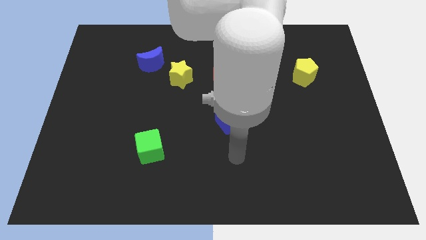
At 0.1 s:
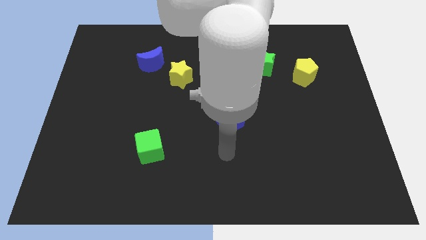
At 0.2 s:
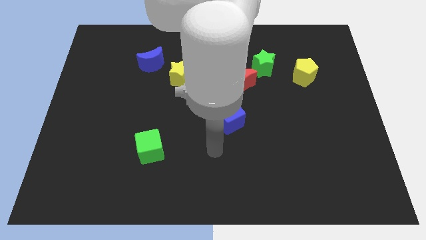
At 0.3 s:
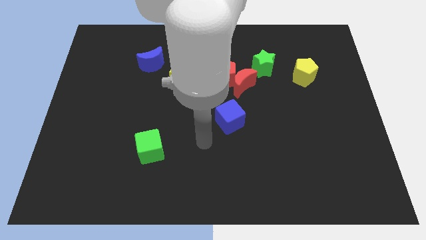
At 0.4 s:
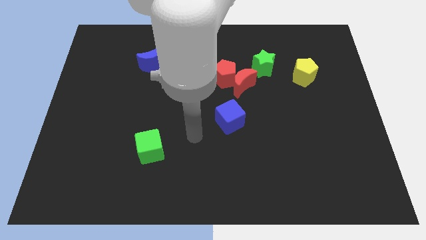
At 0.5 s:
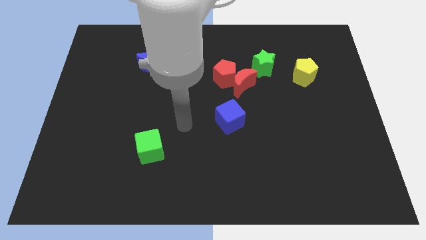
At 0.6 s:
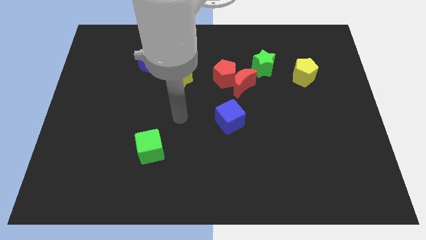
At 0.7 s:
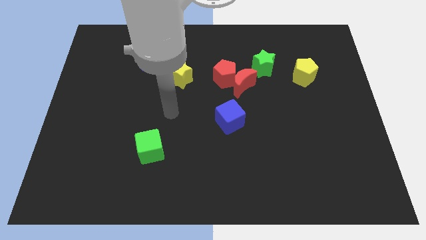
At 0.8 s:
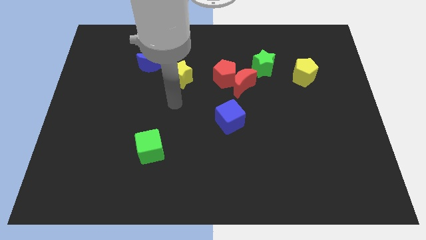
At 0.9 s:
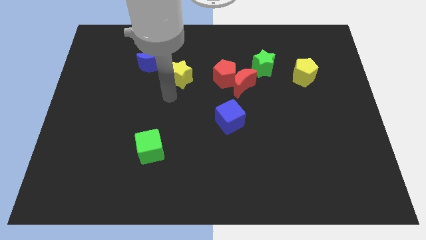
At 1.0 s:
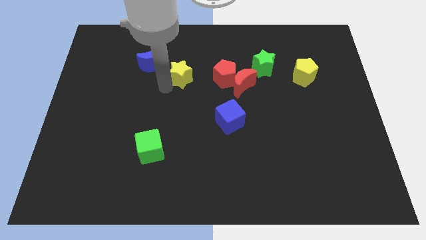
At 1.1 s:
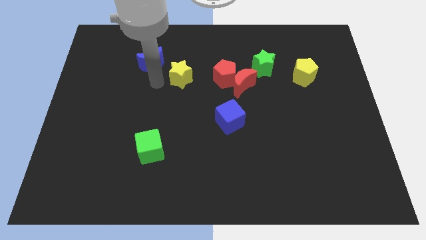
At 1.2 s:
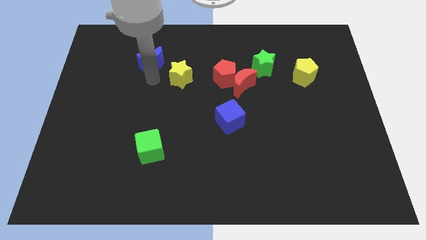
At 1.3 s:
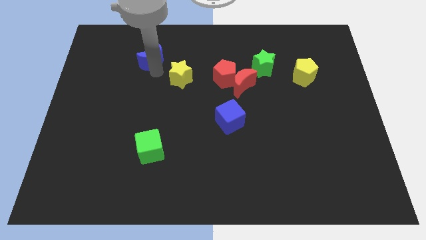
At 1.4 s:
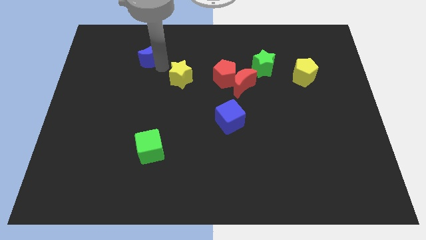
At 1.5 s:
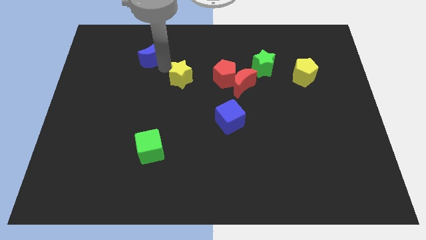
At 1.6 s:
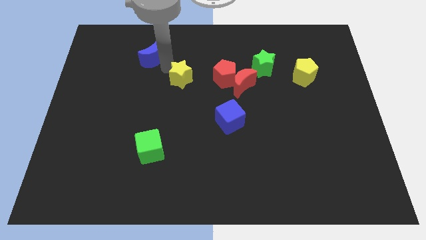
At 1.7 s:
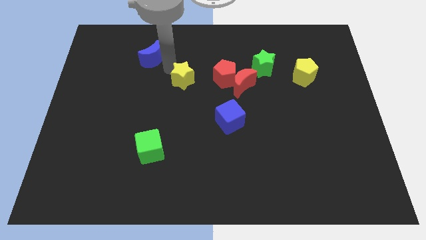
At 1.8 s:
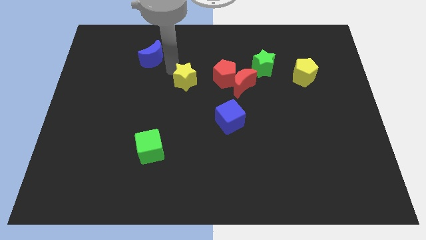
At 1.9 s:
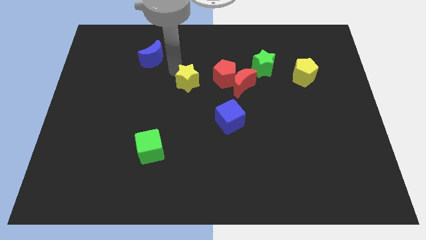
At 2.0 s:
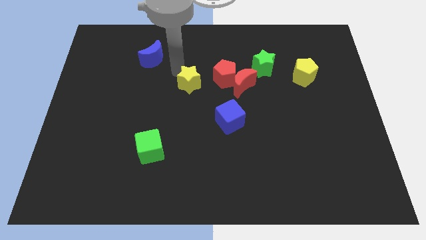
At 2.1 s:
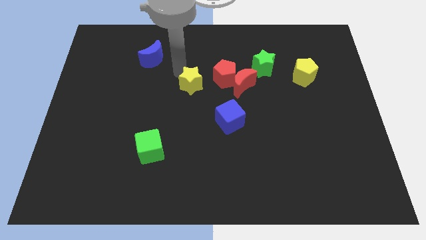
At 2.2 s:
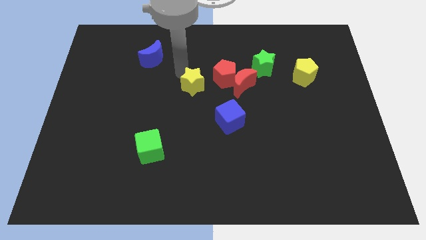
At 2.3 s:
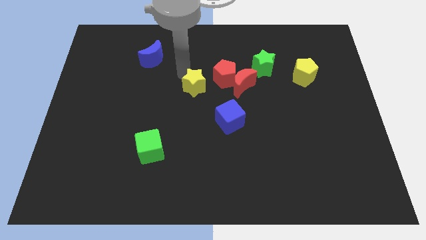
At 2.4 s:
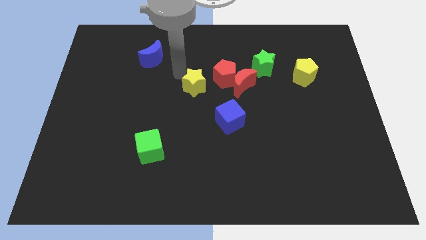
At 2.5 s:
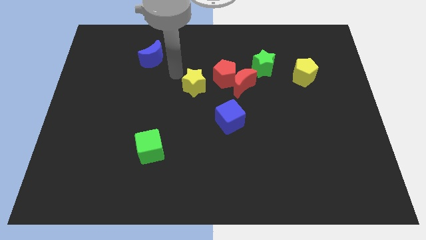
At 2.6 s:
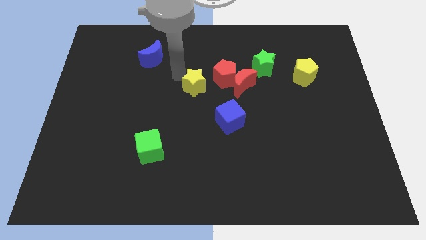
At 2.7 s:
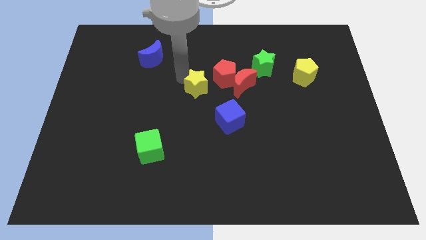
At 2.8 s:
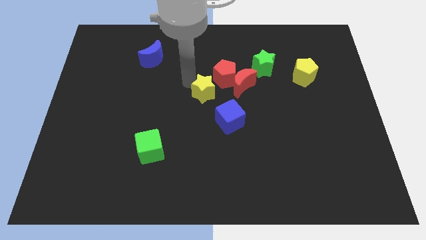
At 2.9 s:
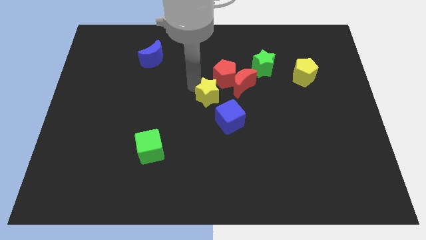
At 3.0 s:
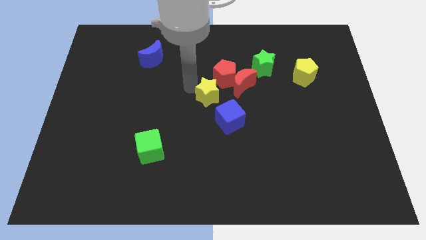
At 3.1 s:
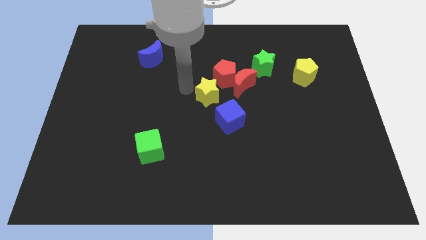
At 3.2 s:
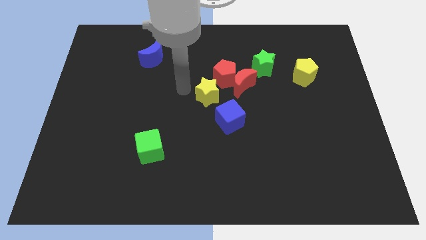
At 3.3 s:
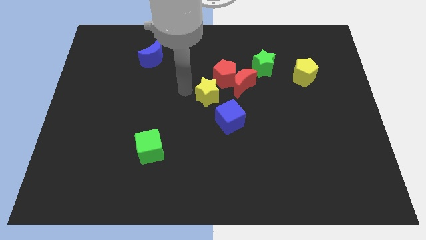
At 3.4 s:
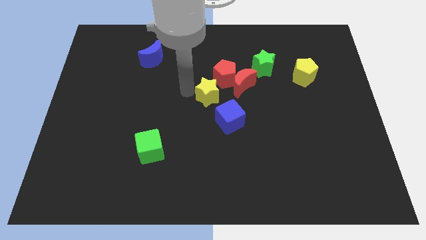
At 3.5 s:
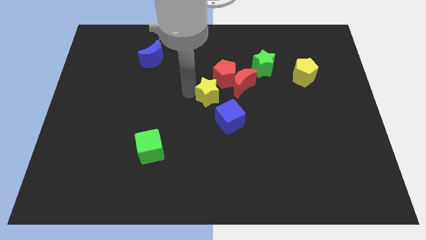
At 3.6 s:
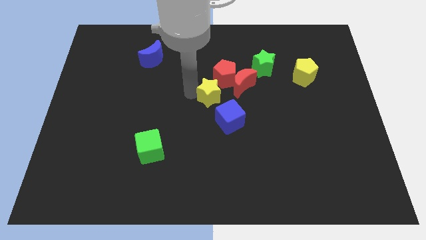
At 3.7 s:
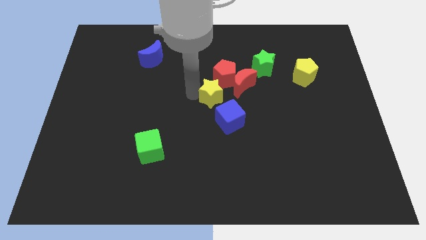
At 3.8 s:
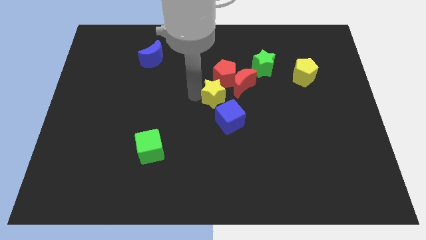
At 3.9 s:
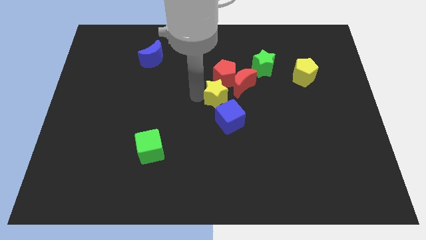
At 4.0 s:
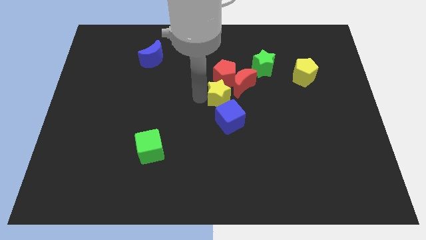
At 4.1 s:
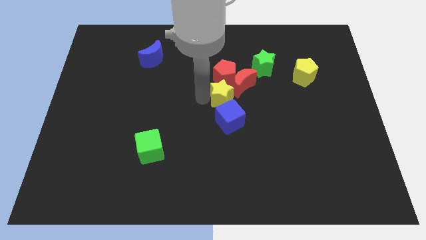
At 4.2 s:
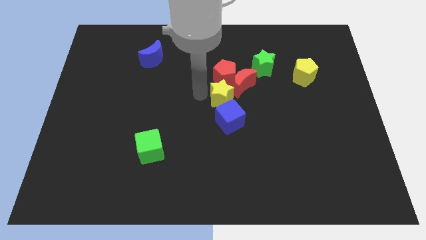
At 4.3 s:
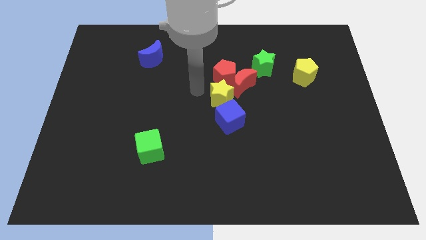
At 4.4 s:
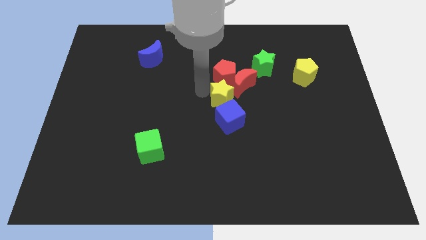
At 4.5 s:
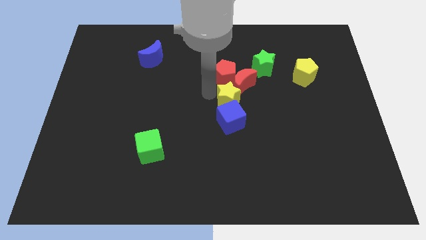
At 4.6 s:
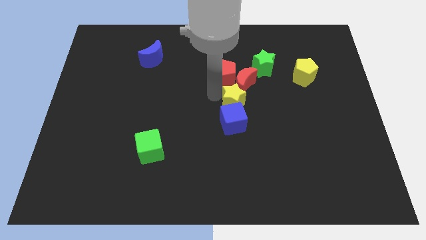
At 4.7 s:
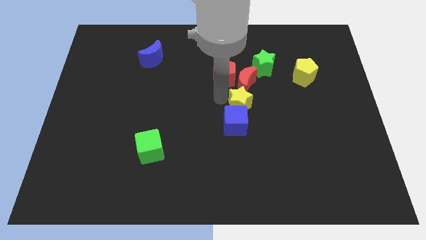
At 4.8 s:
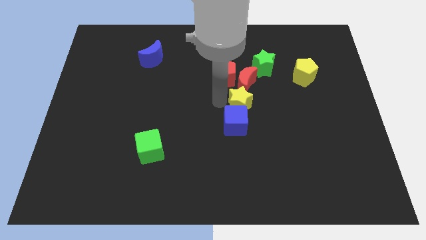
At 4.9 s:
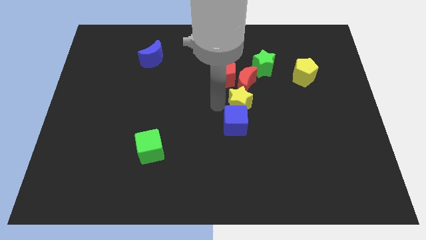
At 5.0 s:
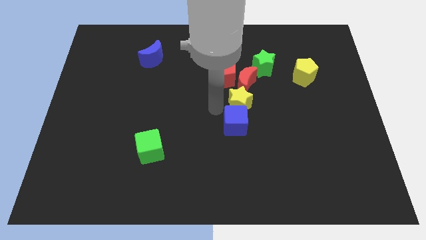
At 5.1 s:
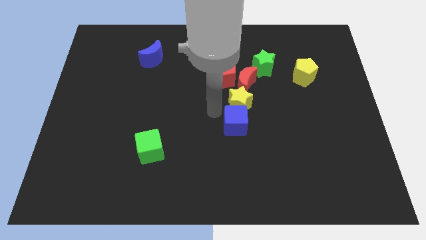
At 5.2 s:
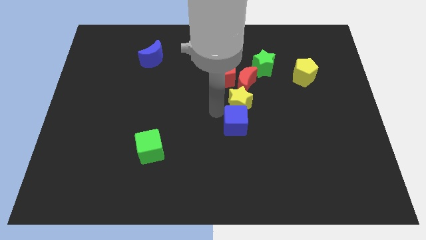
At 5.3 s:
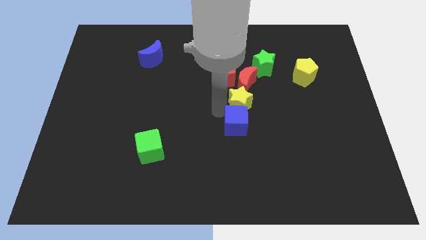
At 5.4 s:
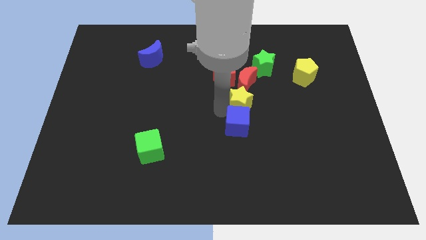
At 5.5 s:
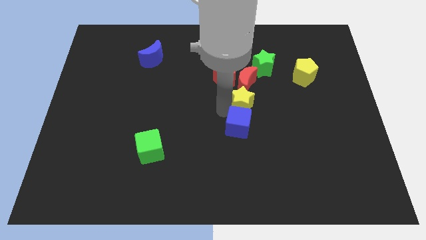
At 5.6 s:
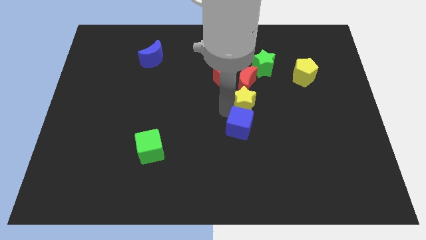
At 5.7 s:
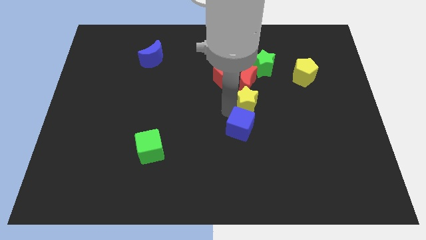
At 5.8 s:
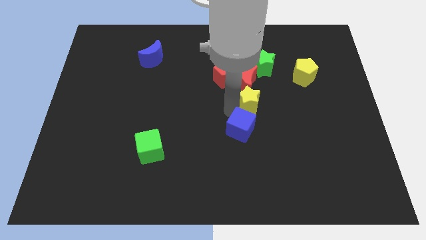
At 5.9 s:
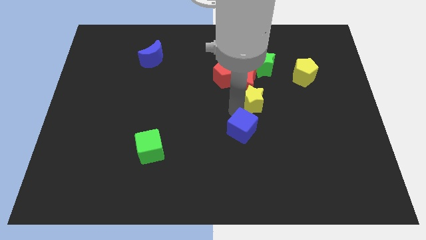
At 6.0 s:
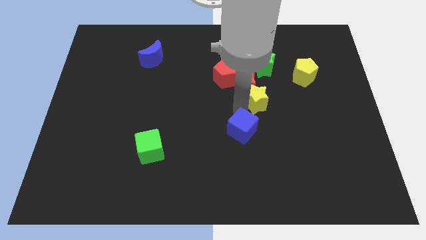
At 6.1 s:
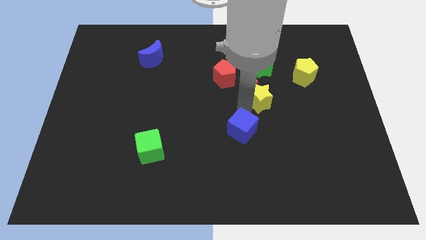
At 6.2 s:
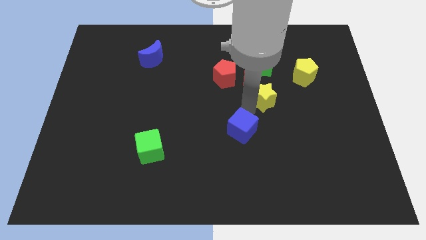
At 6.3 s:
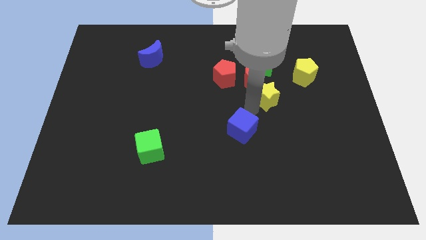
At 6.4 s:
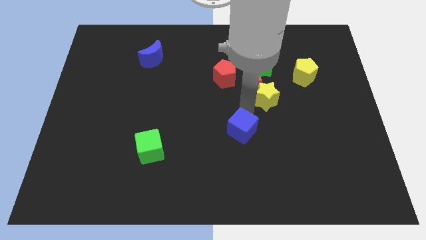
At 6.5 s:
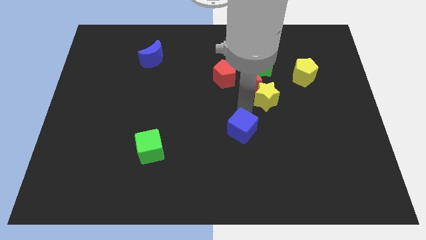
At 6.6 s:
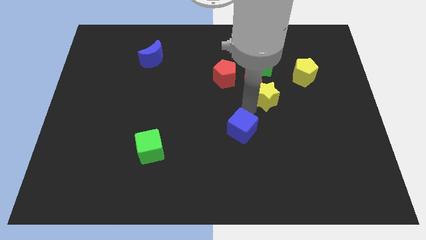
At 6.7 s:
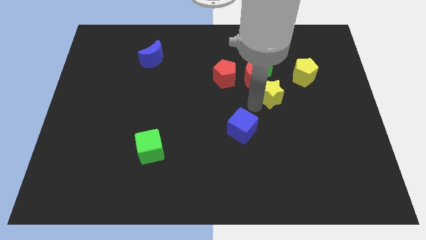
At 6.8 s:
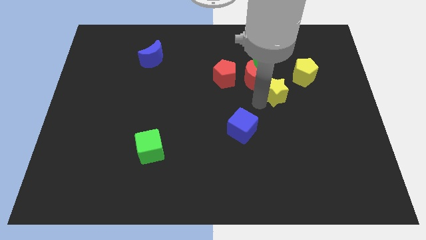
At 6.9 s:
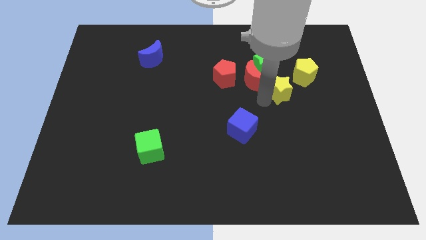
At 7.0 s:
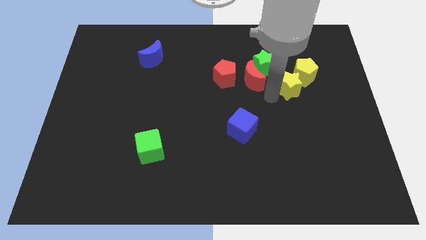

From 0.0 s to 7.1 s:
move the yellow star to the yellow pentagon

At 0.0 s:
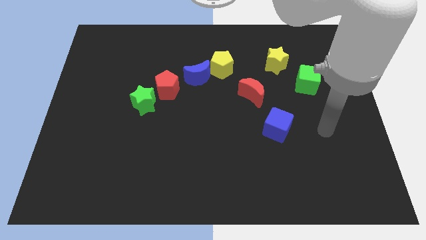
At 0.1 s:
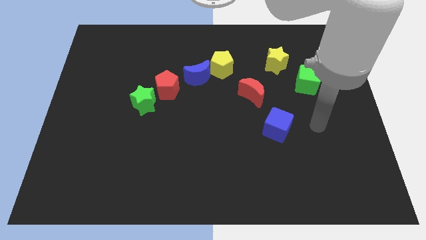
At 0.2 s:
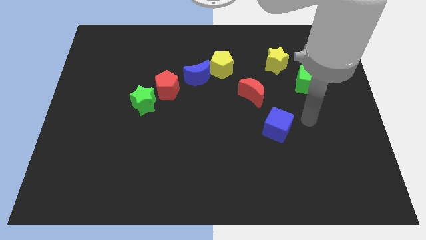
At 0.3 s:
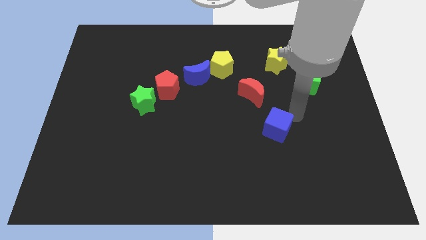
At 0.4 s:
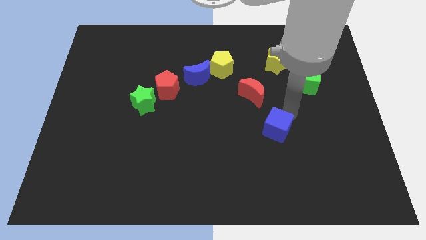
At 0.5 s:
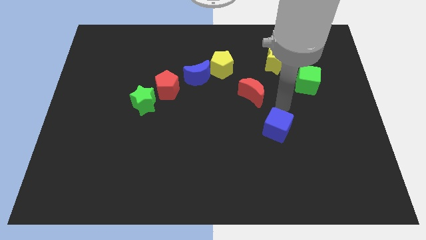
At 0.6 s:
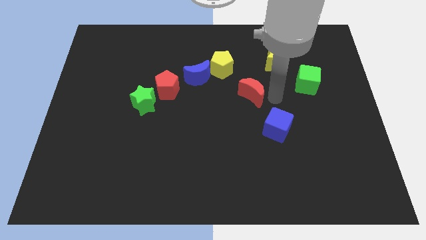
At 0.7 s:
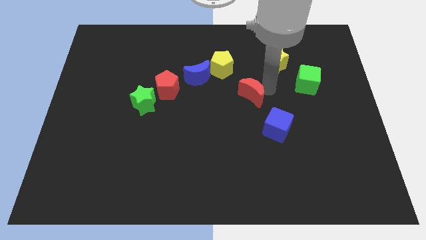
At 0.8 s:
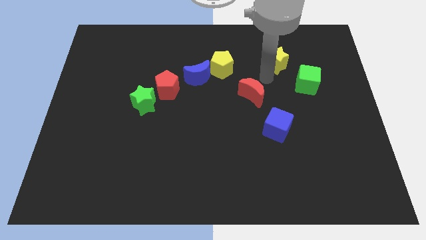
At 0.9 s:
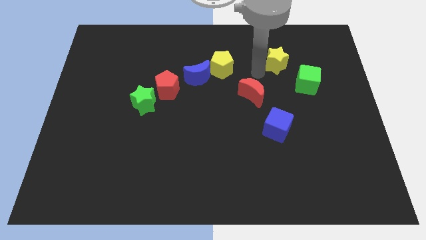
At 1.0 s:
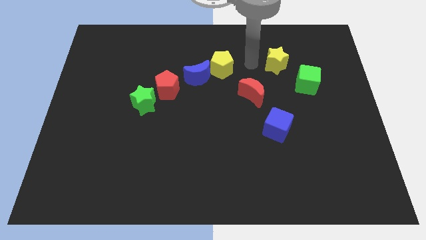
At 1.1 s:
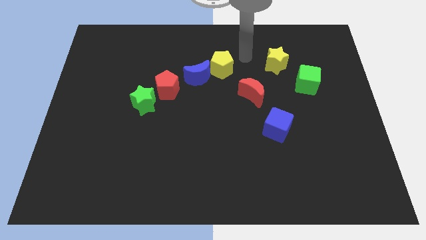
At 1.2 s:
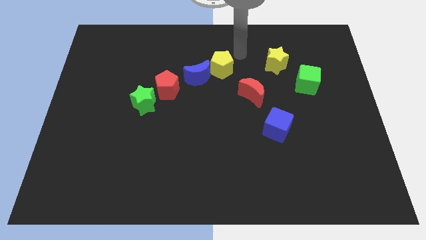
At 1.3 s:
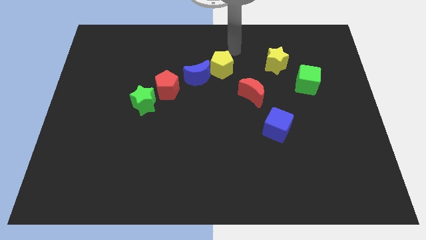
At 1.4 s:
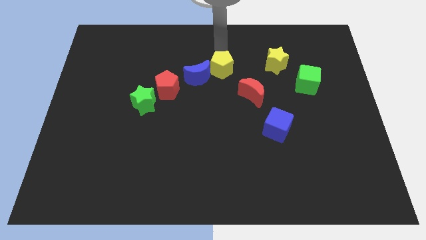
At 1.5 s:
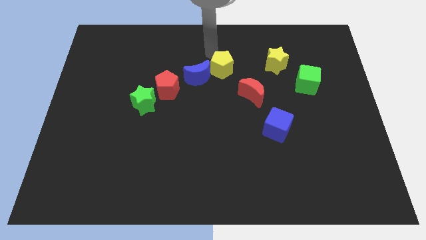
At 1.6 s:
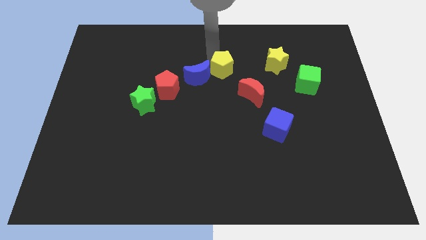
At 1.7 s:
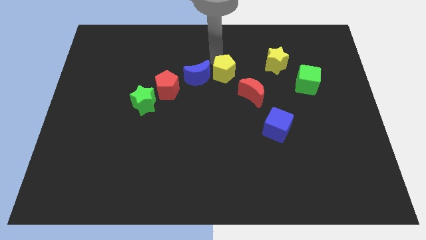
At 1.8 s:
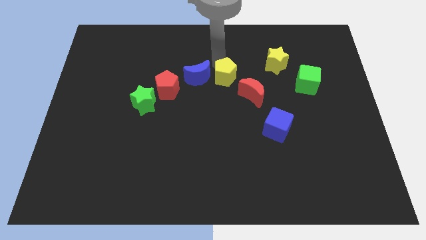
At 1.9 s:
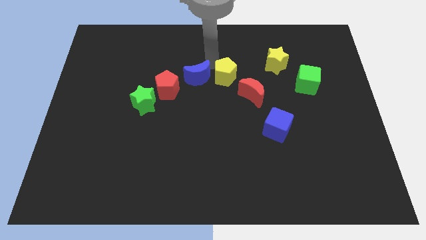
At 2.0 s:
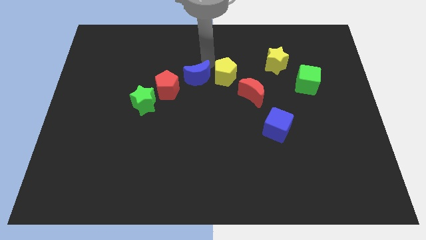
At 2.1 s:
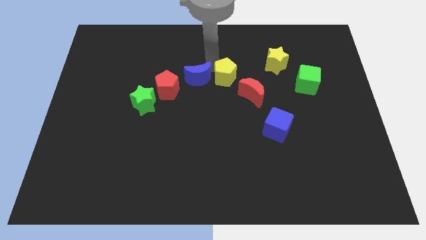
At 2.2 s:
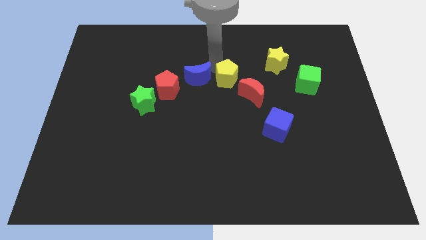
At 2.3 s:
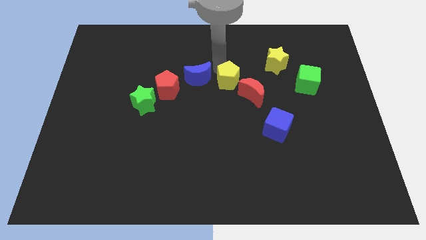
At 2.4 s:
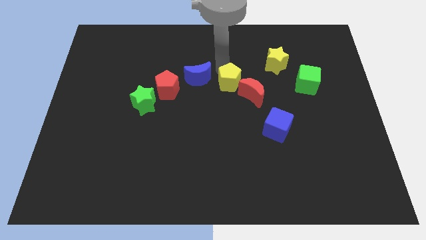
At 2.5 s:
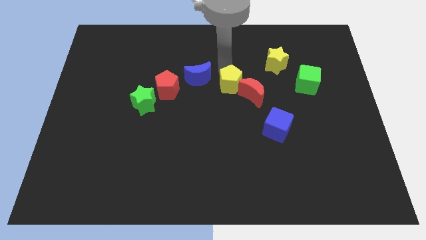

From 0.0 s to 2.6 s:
put the yellow pentagon to the red moon
